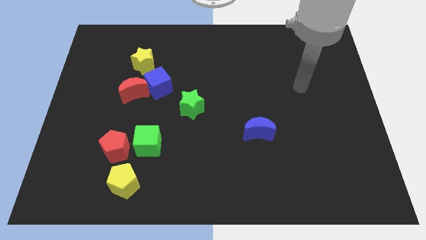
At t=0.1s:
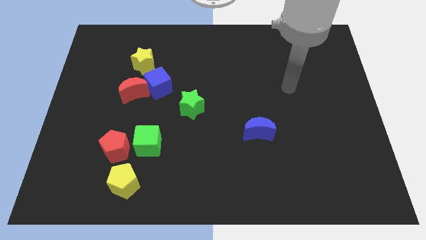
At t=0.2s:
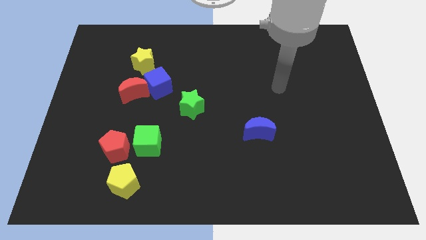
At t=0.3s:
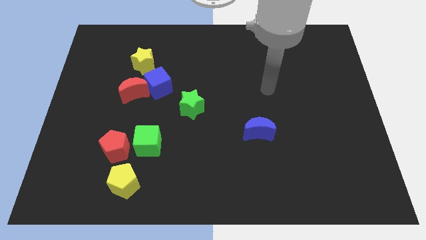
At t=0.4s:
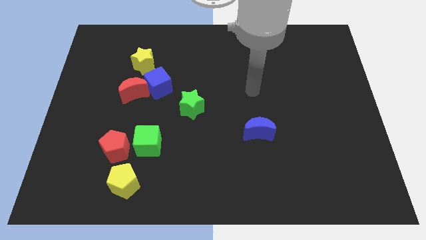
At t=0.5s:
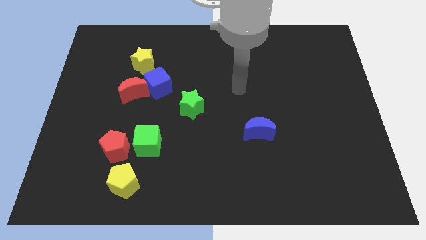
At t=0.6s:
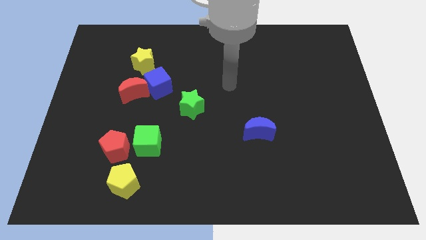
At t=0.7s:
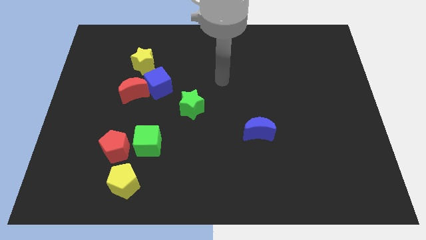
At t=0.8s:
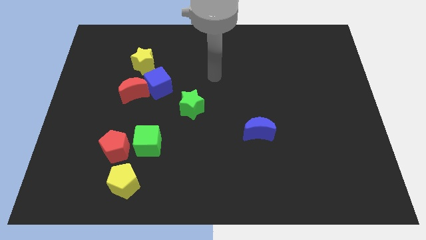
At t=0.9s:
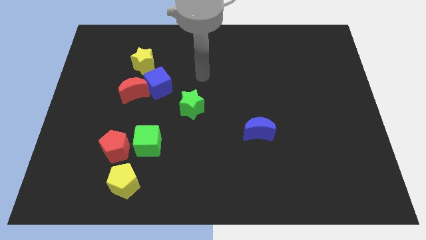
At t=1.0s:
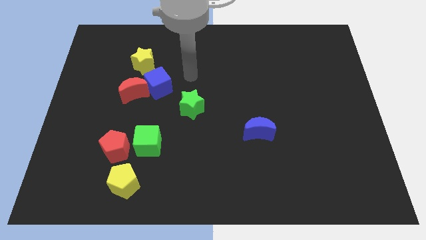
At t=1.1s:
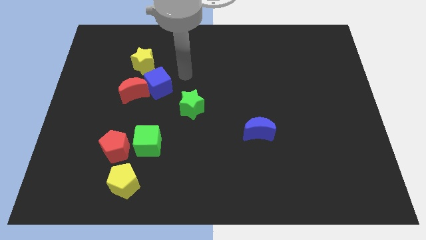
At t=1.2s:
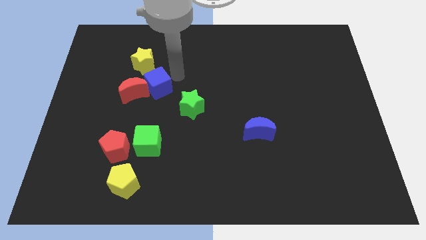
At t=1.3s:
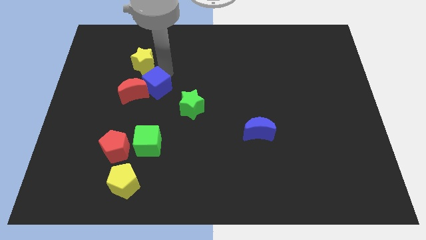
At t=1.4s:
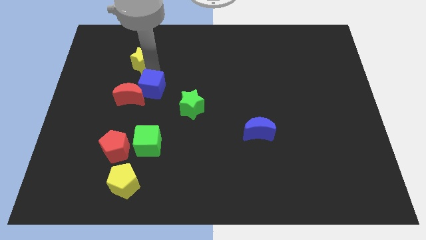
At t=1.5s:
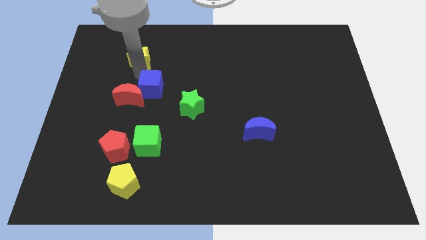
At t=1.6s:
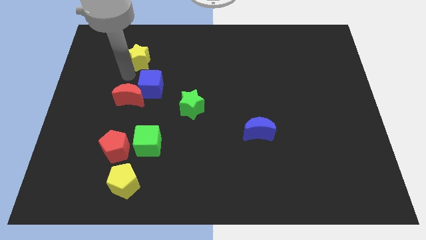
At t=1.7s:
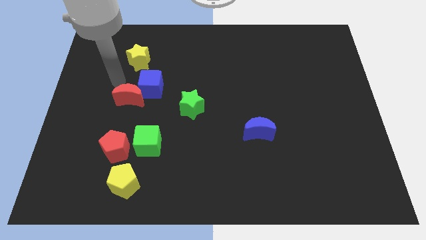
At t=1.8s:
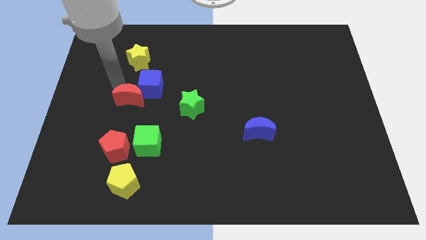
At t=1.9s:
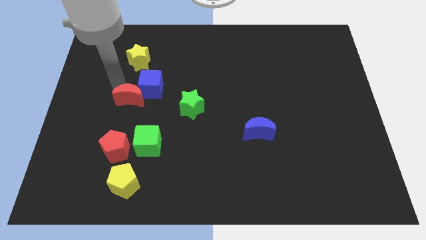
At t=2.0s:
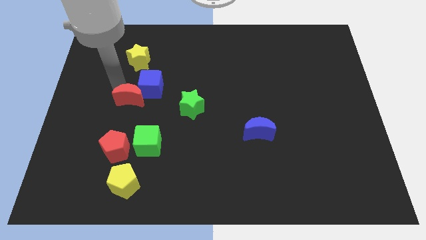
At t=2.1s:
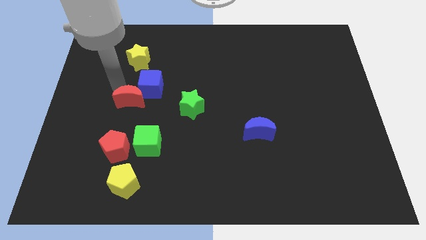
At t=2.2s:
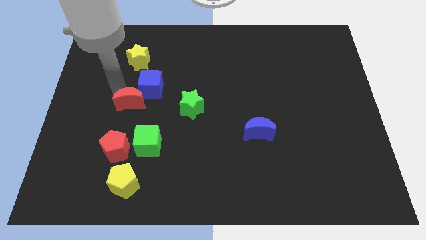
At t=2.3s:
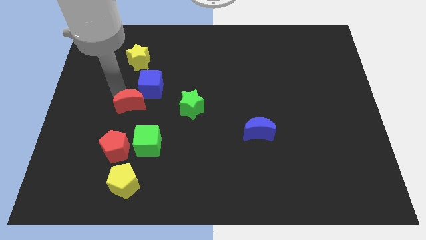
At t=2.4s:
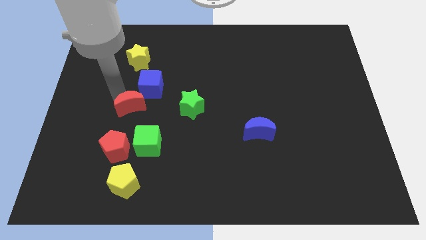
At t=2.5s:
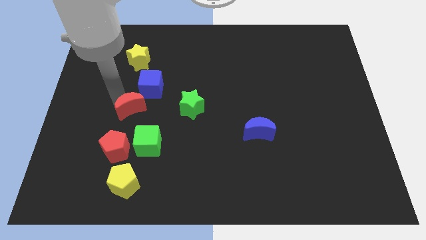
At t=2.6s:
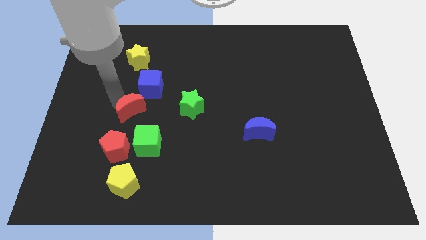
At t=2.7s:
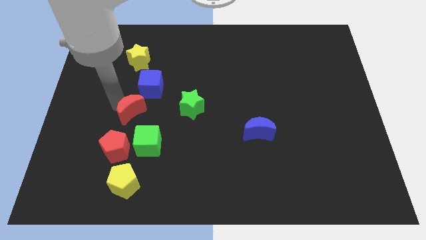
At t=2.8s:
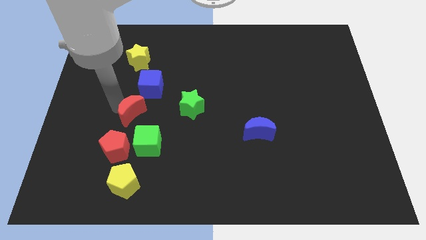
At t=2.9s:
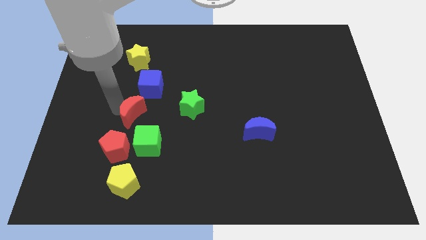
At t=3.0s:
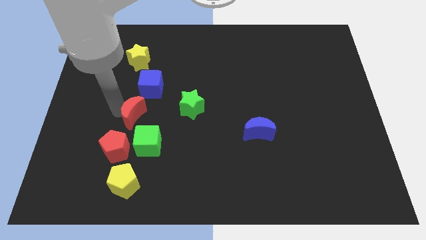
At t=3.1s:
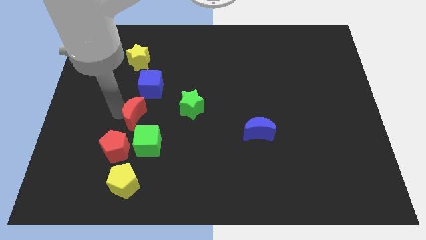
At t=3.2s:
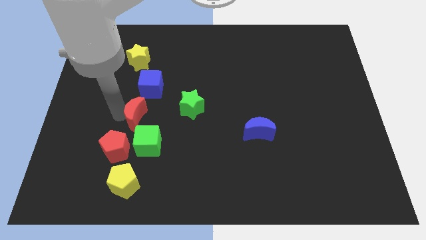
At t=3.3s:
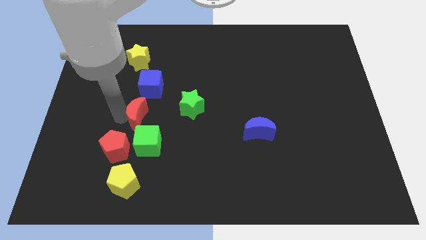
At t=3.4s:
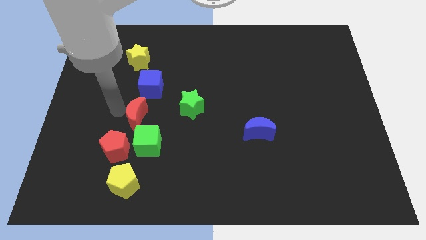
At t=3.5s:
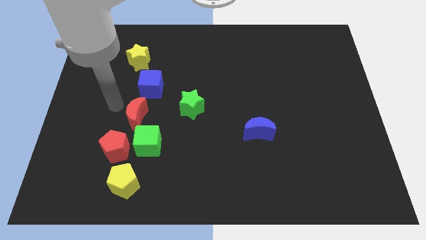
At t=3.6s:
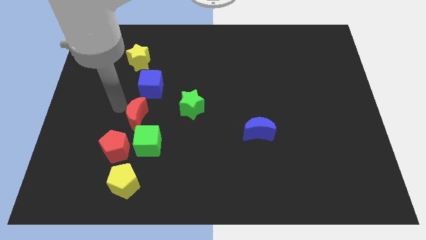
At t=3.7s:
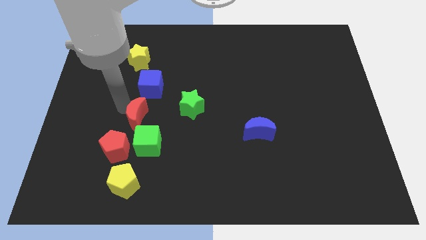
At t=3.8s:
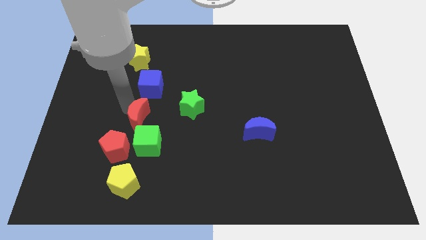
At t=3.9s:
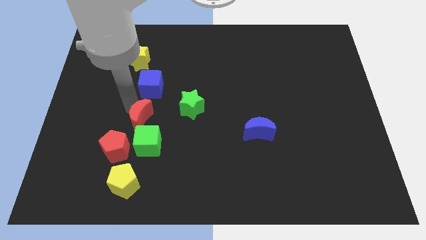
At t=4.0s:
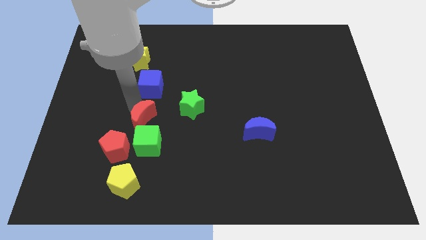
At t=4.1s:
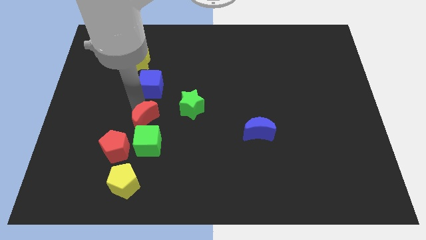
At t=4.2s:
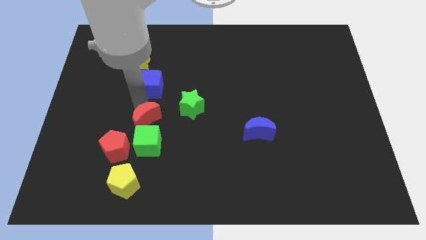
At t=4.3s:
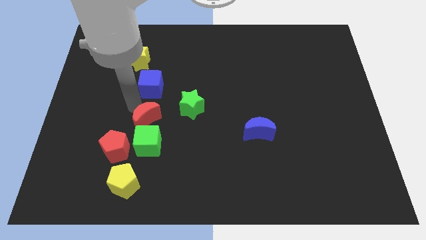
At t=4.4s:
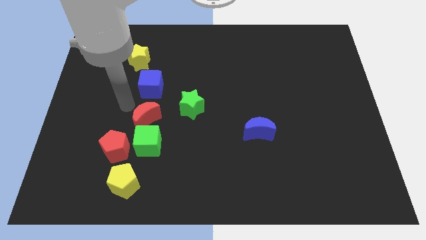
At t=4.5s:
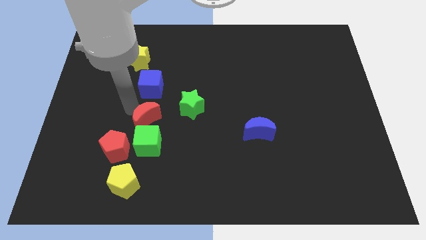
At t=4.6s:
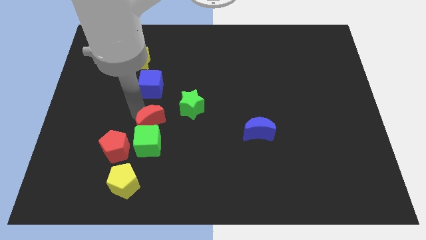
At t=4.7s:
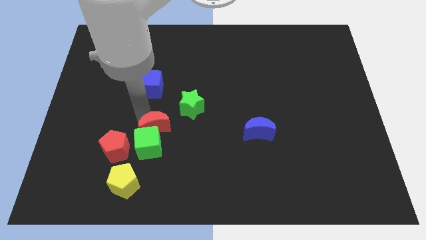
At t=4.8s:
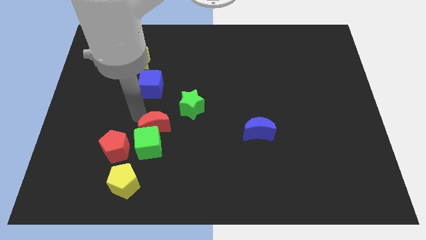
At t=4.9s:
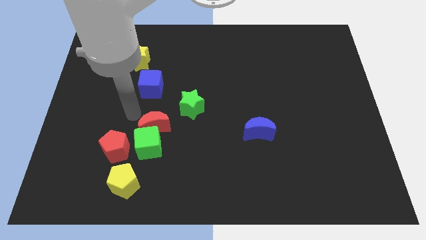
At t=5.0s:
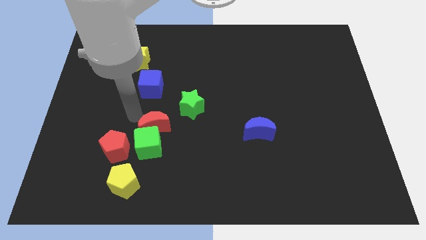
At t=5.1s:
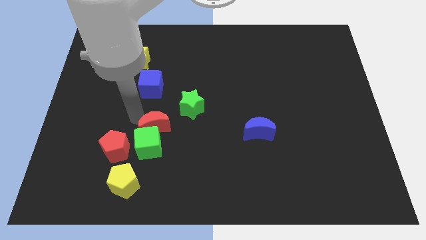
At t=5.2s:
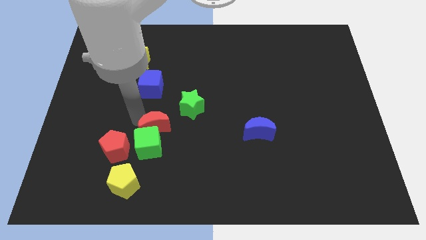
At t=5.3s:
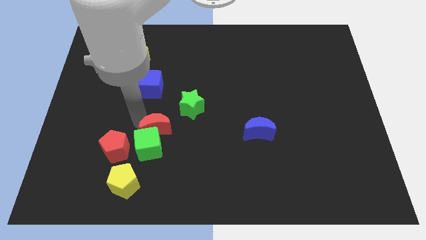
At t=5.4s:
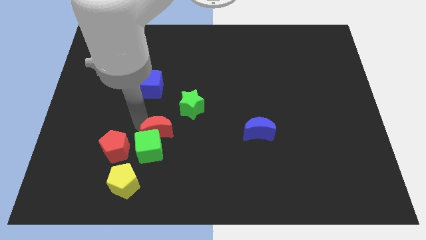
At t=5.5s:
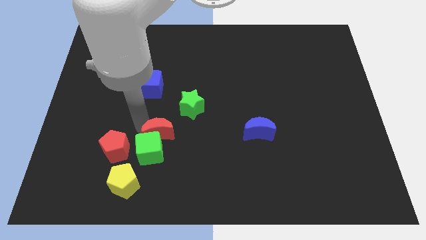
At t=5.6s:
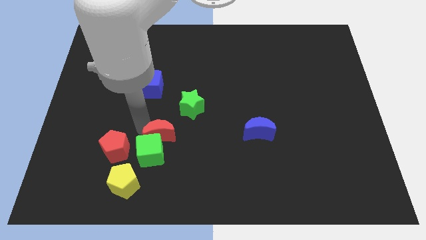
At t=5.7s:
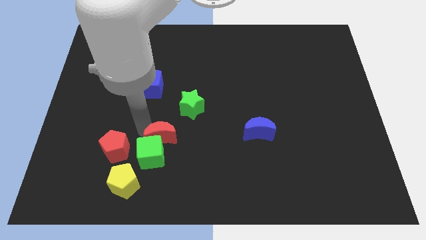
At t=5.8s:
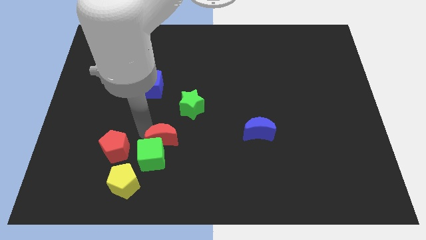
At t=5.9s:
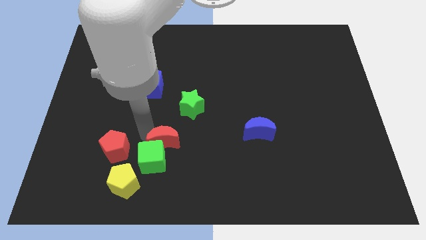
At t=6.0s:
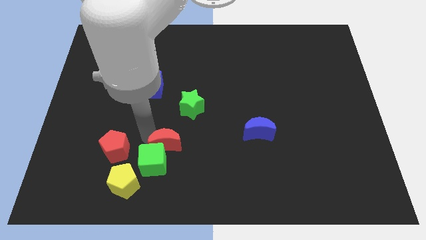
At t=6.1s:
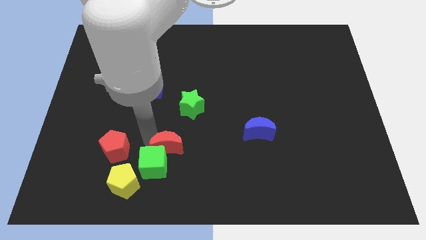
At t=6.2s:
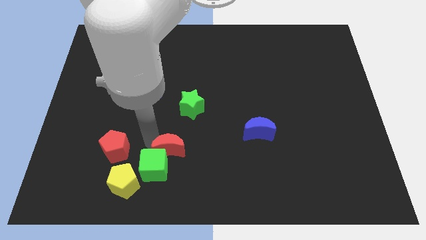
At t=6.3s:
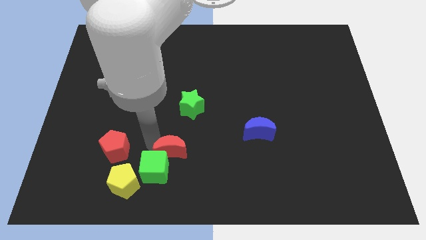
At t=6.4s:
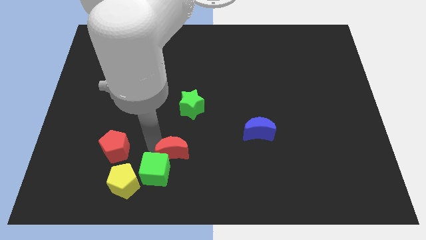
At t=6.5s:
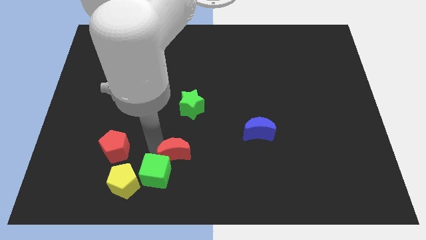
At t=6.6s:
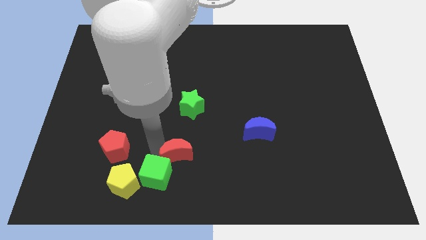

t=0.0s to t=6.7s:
move the red moon down and to the right

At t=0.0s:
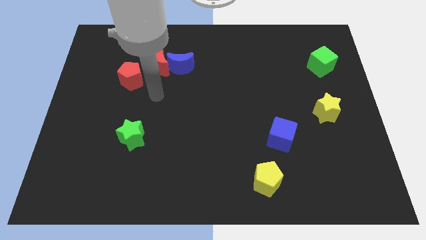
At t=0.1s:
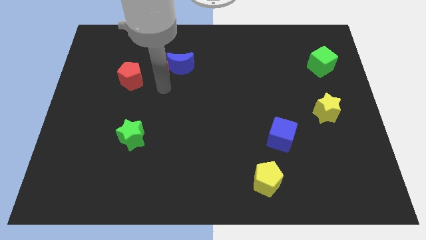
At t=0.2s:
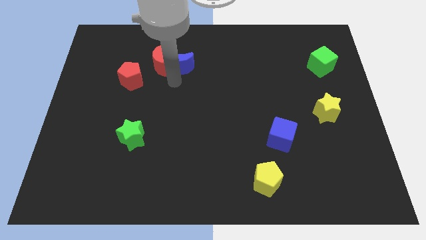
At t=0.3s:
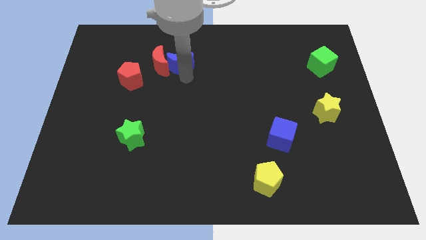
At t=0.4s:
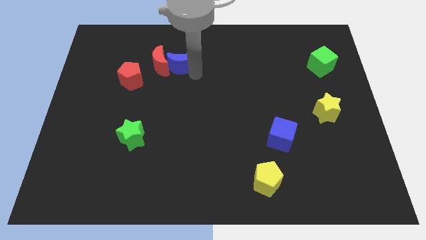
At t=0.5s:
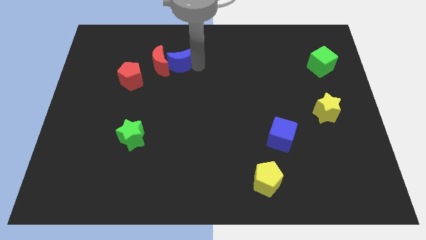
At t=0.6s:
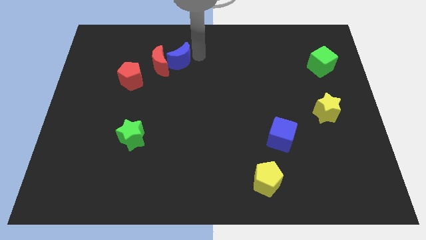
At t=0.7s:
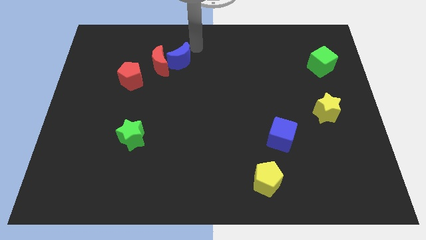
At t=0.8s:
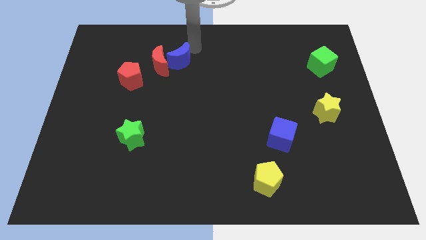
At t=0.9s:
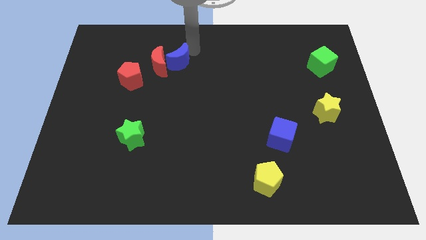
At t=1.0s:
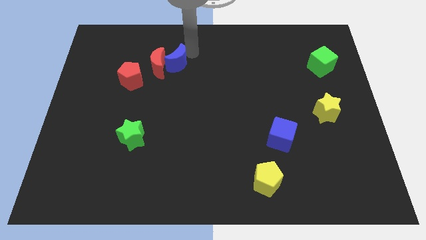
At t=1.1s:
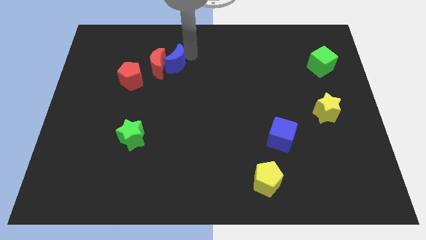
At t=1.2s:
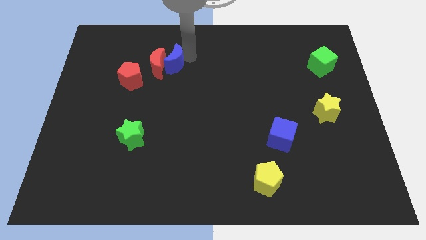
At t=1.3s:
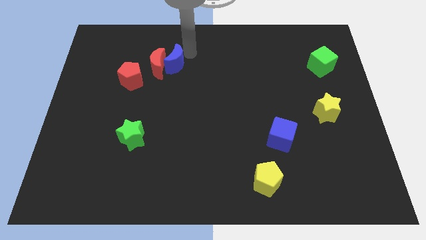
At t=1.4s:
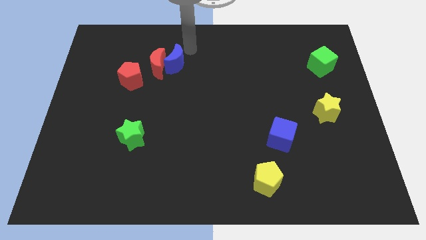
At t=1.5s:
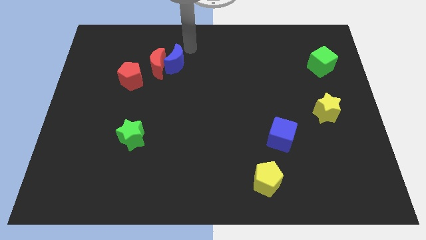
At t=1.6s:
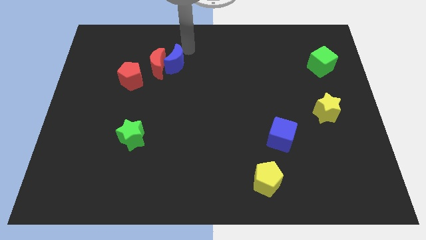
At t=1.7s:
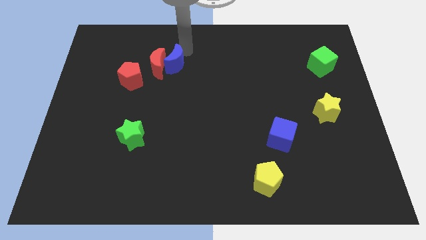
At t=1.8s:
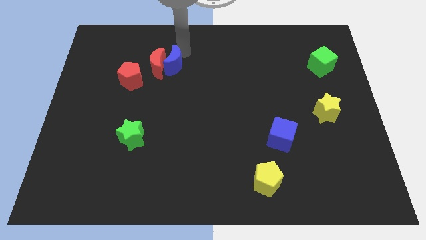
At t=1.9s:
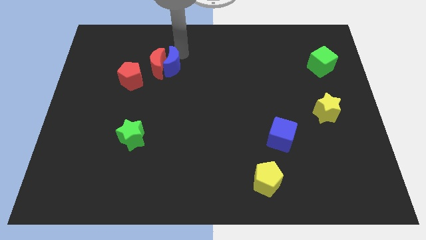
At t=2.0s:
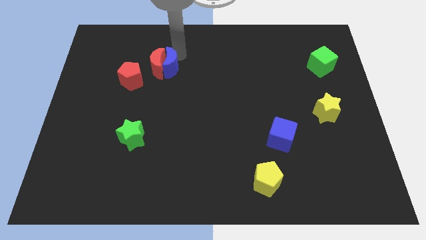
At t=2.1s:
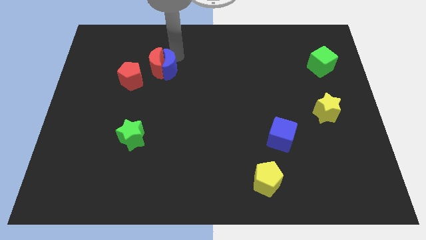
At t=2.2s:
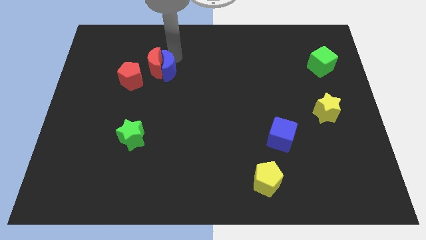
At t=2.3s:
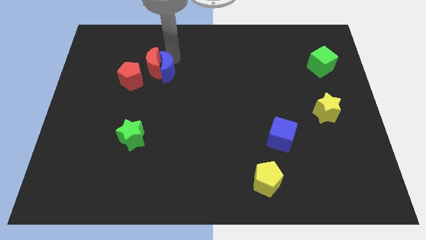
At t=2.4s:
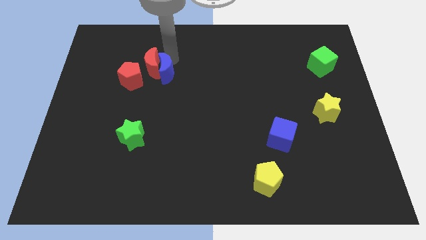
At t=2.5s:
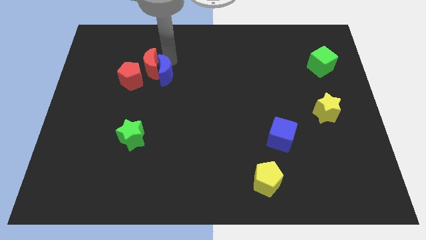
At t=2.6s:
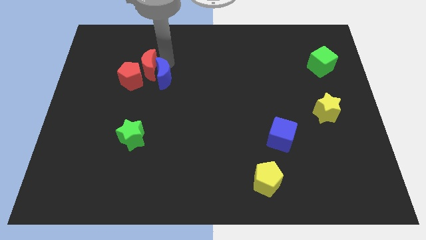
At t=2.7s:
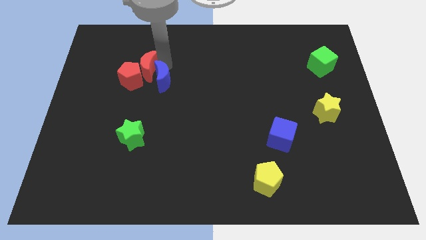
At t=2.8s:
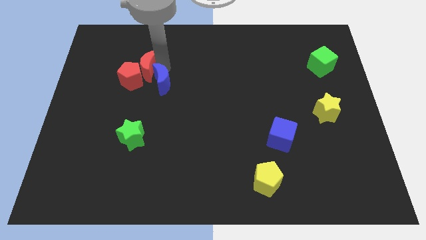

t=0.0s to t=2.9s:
push the blue moon down and left diagonally somewhat
